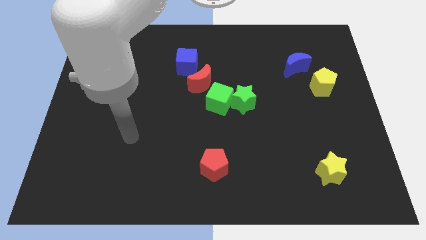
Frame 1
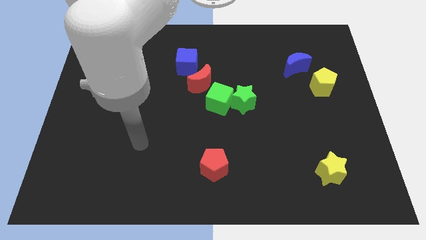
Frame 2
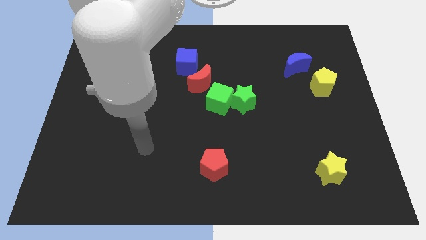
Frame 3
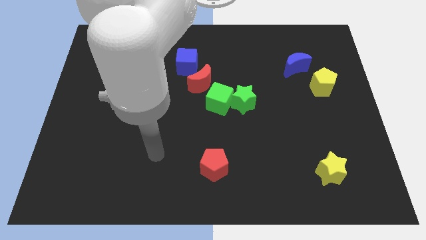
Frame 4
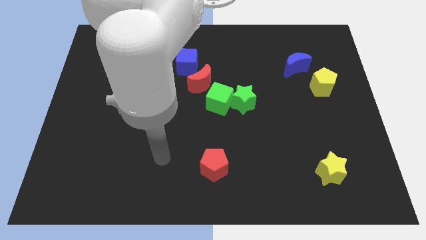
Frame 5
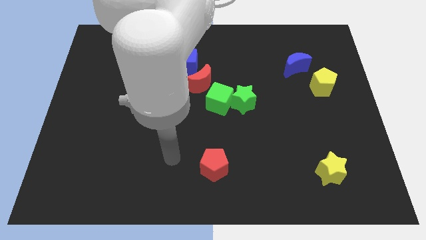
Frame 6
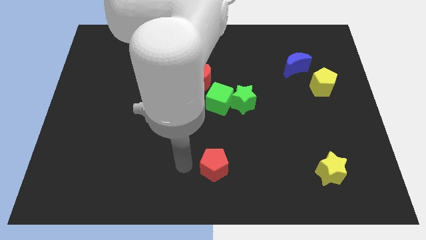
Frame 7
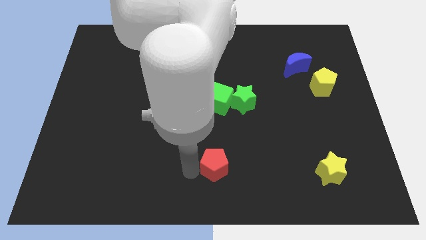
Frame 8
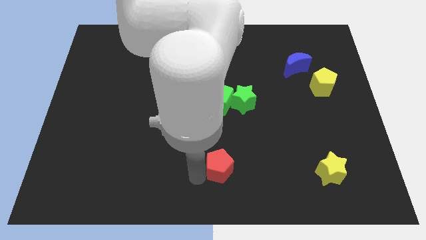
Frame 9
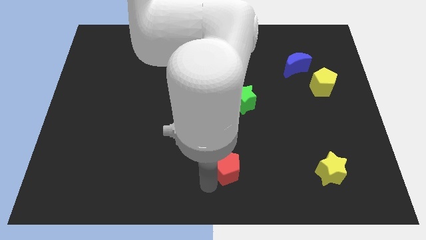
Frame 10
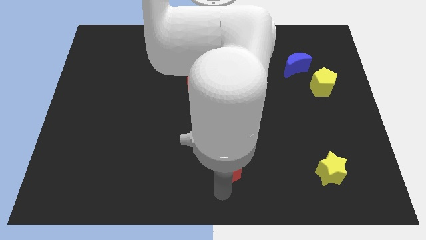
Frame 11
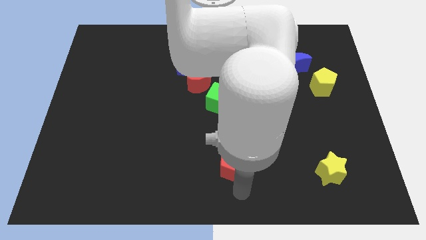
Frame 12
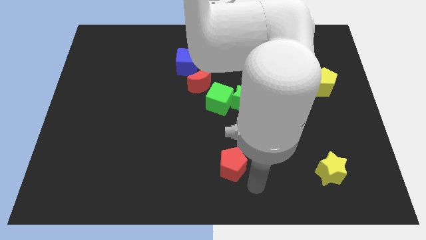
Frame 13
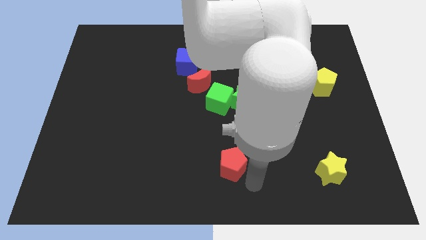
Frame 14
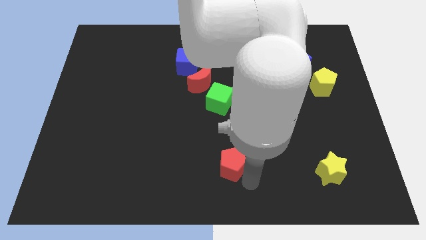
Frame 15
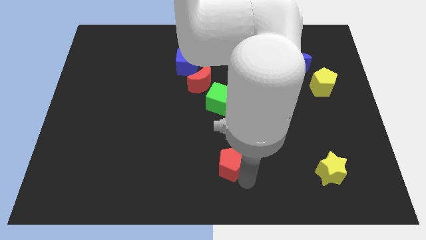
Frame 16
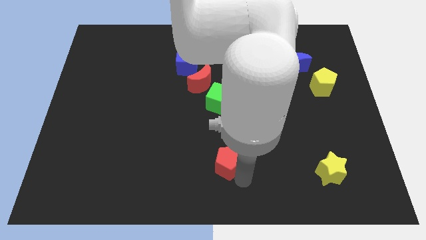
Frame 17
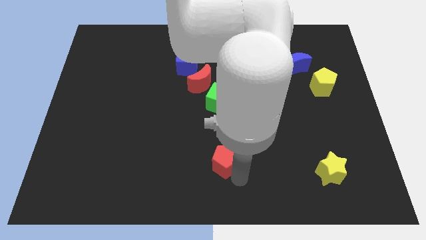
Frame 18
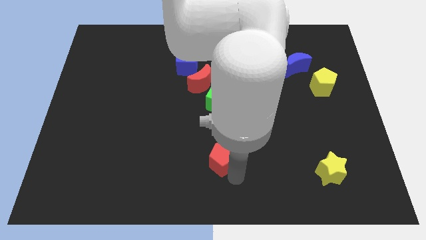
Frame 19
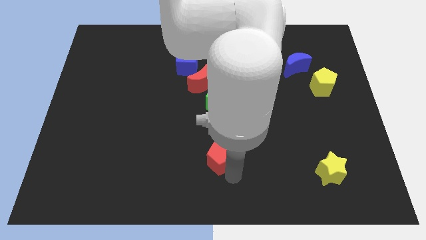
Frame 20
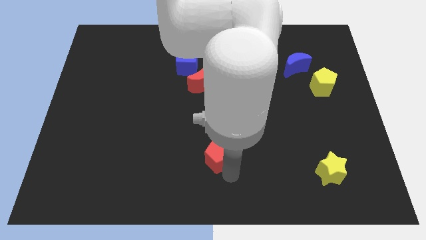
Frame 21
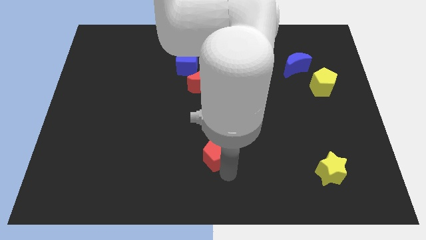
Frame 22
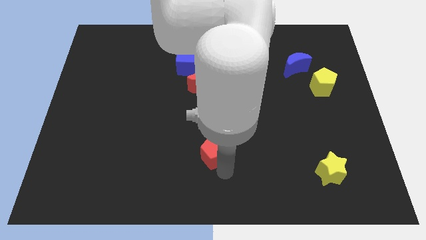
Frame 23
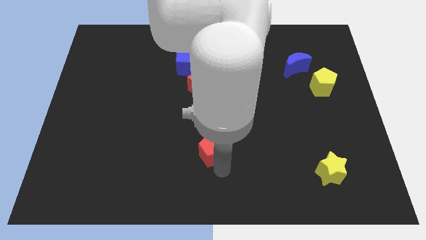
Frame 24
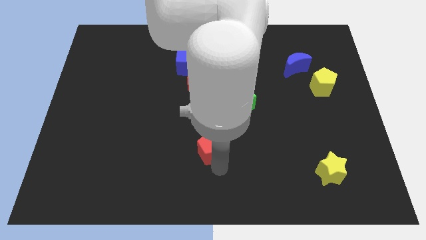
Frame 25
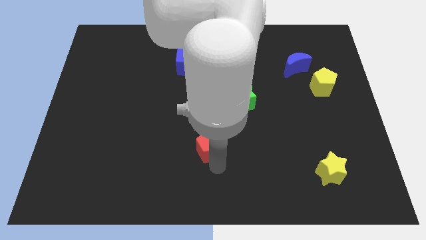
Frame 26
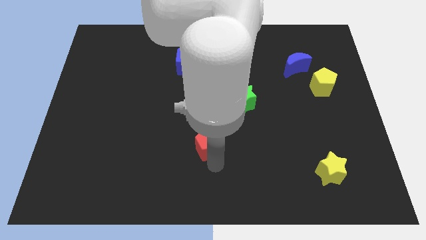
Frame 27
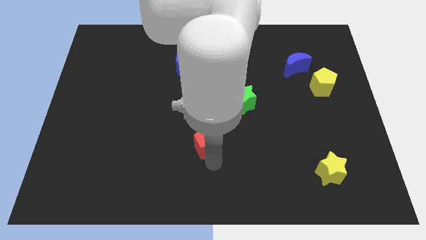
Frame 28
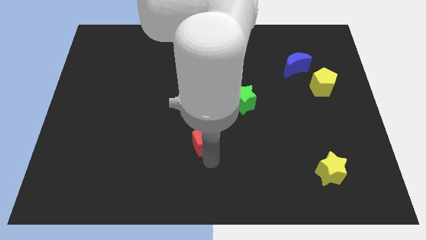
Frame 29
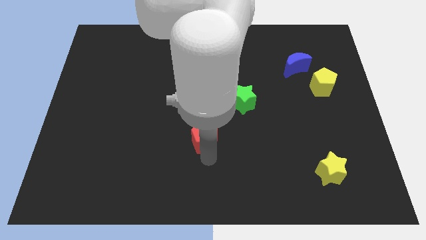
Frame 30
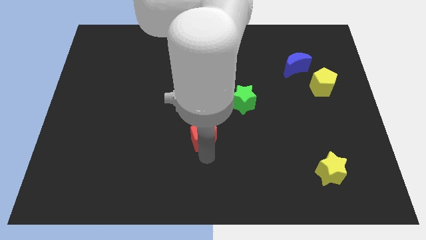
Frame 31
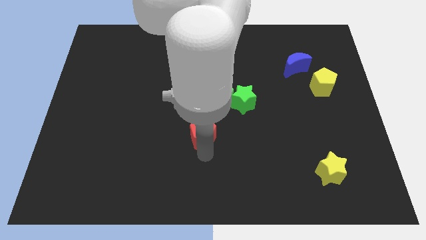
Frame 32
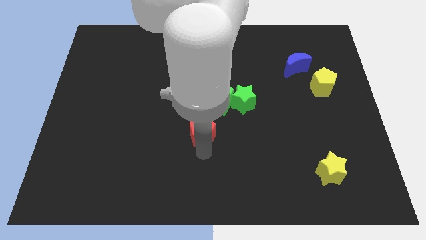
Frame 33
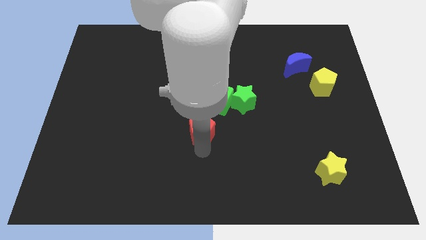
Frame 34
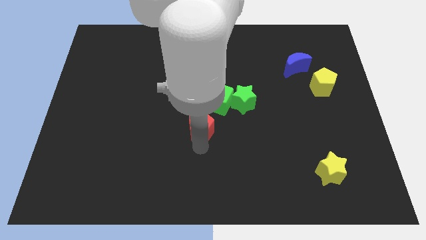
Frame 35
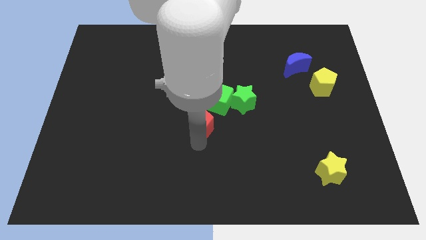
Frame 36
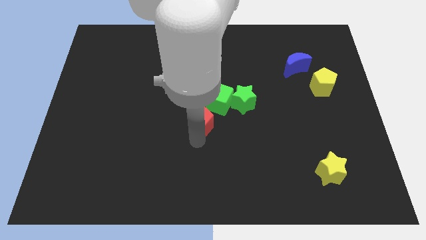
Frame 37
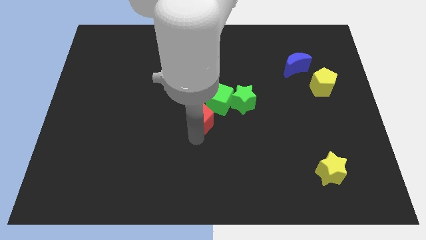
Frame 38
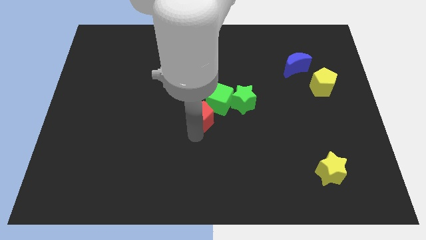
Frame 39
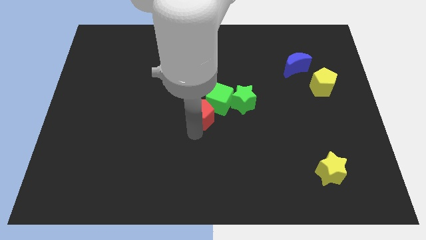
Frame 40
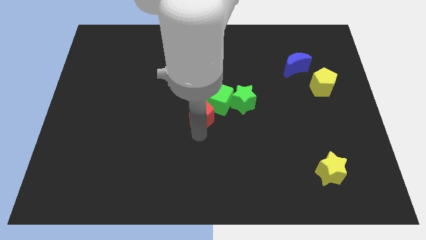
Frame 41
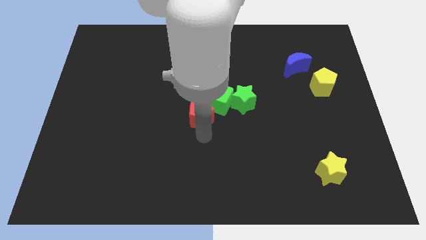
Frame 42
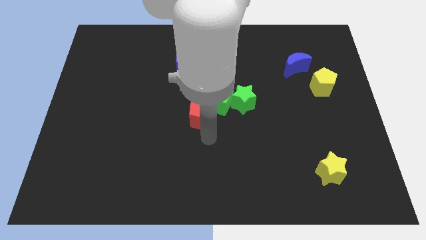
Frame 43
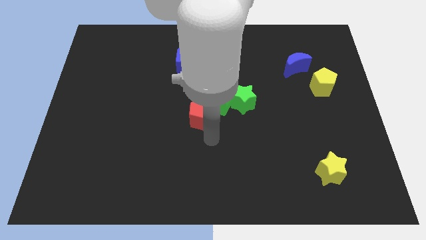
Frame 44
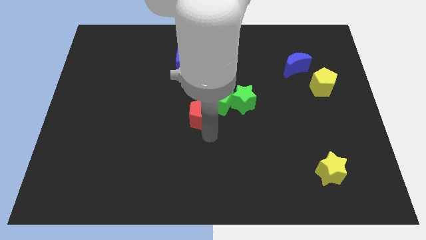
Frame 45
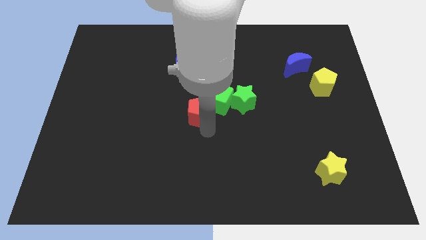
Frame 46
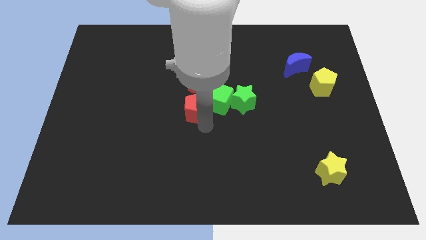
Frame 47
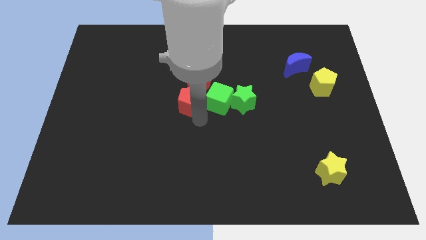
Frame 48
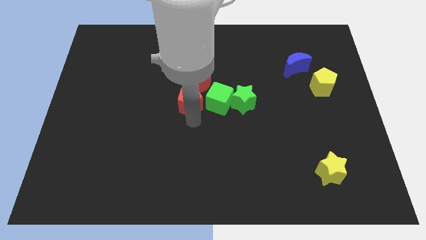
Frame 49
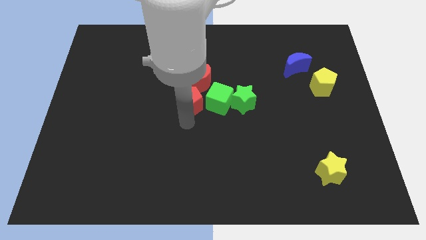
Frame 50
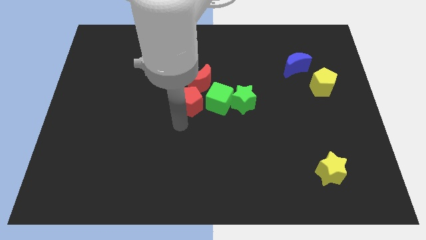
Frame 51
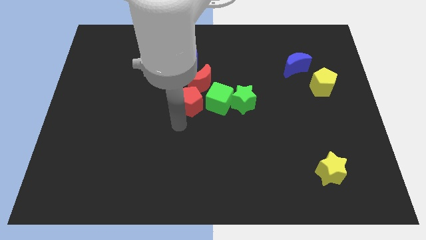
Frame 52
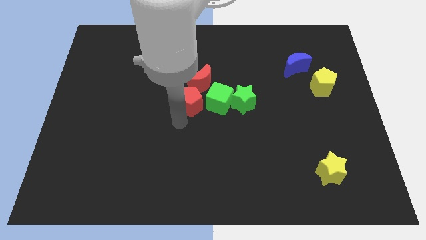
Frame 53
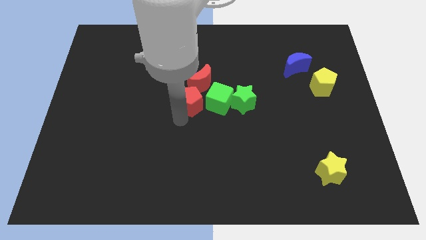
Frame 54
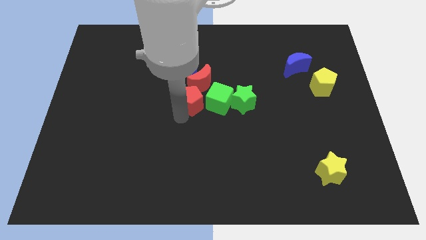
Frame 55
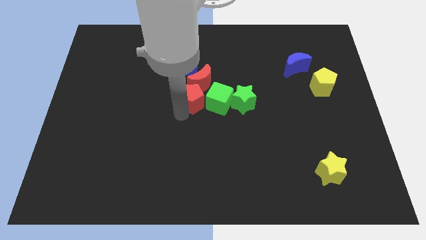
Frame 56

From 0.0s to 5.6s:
push the red pentagon towards the red moon

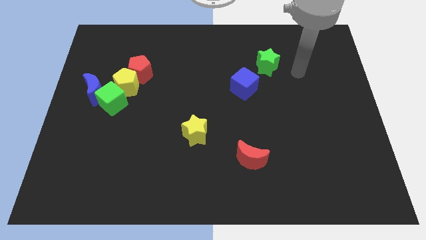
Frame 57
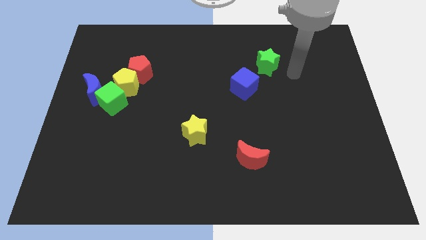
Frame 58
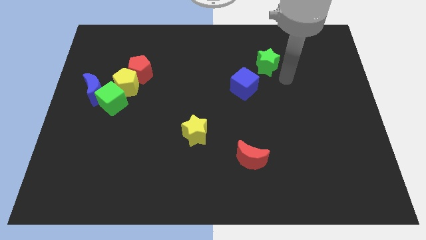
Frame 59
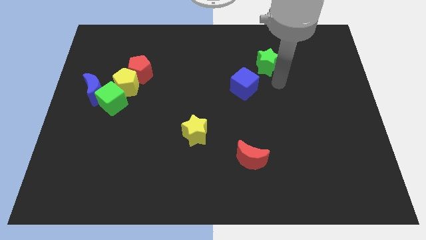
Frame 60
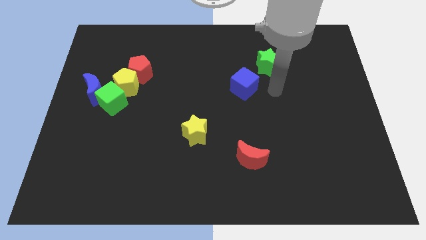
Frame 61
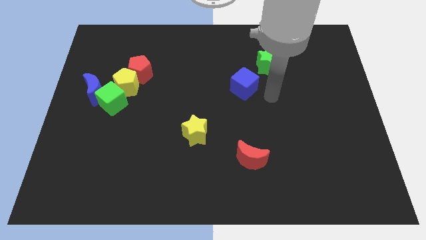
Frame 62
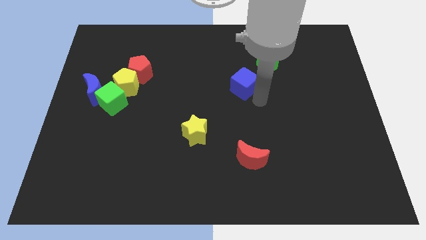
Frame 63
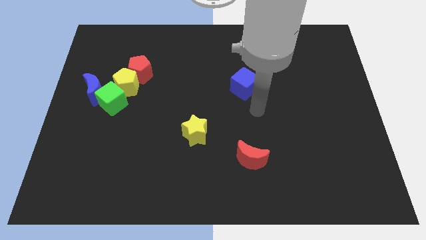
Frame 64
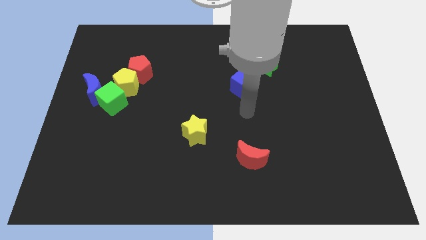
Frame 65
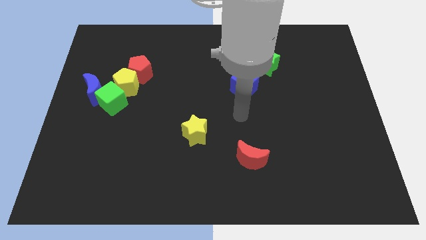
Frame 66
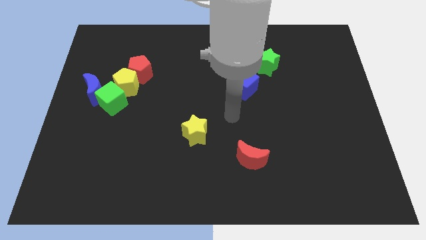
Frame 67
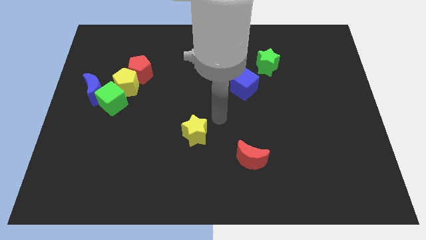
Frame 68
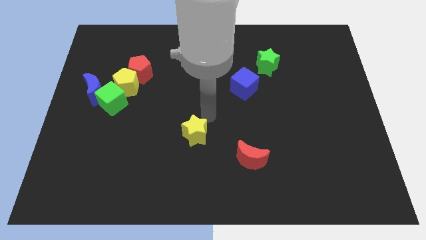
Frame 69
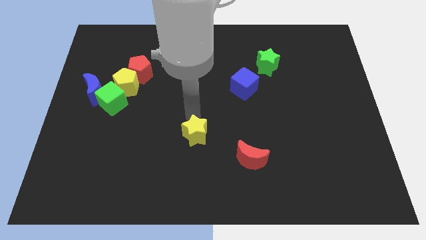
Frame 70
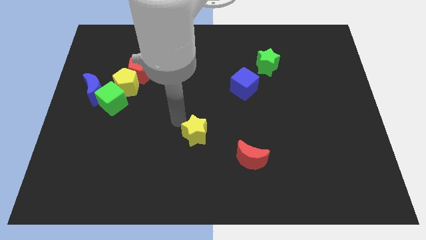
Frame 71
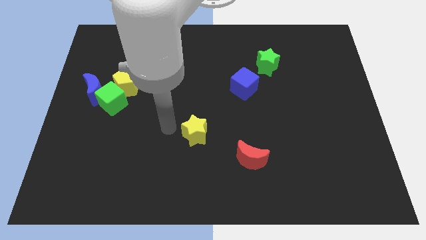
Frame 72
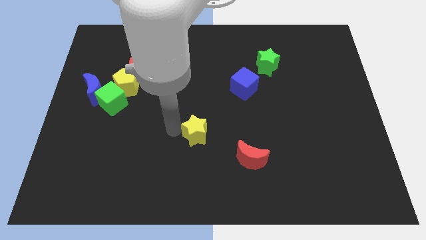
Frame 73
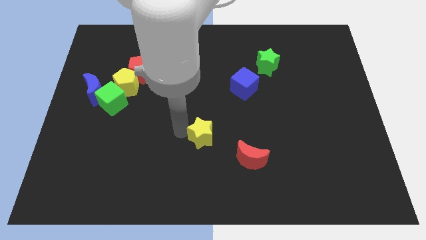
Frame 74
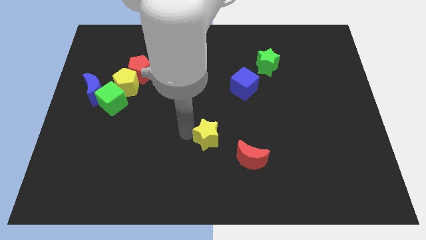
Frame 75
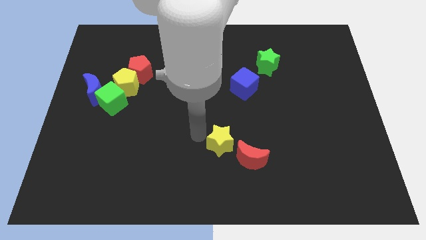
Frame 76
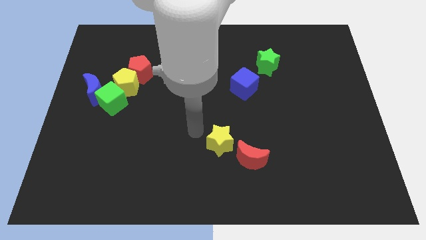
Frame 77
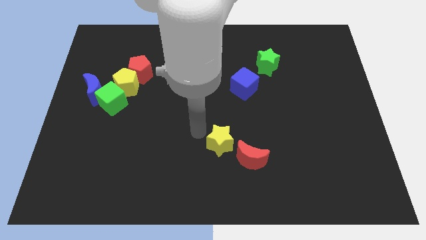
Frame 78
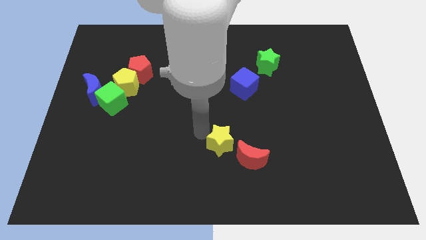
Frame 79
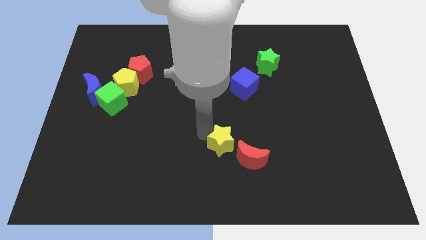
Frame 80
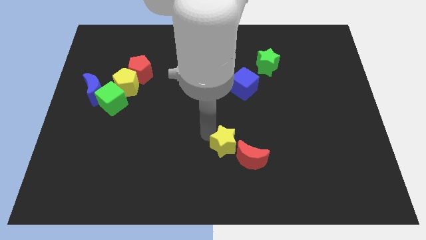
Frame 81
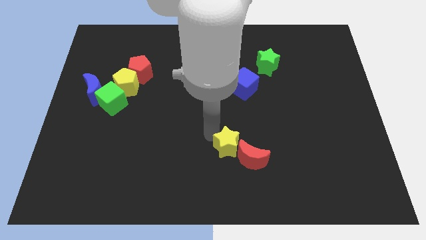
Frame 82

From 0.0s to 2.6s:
move the yellow star next to the red moon

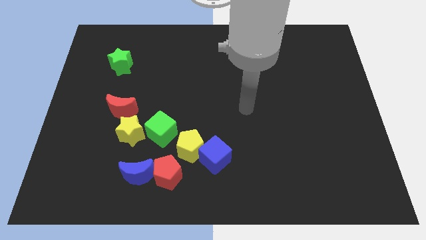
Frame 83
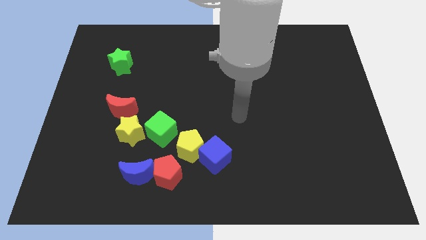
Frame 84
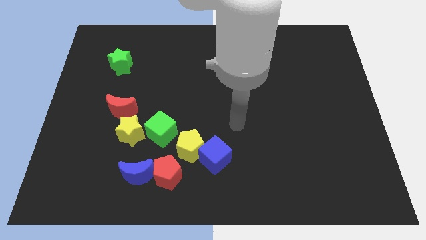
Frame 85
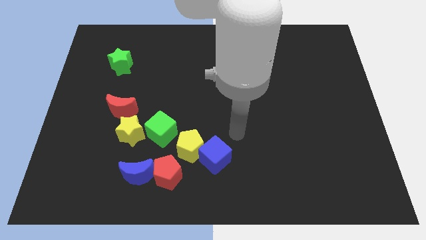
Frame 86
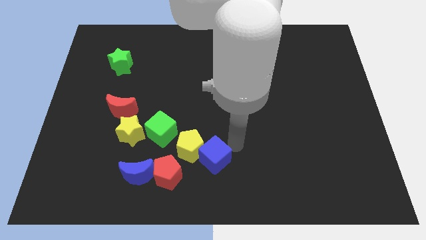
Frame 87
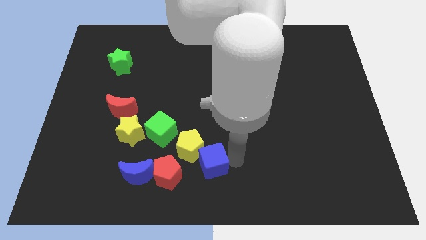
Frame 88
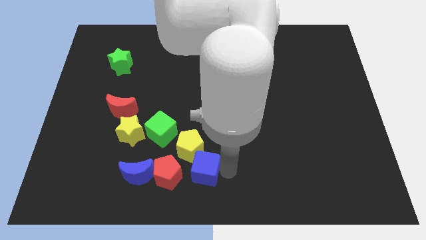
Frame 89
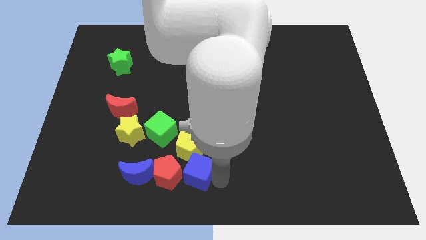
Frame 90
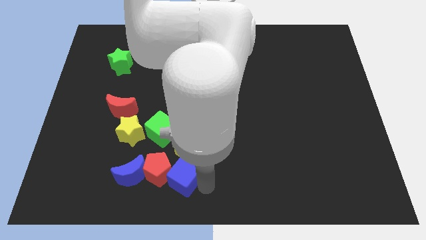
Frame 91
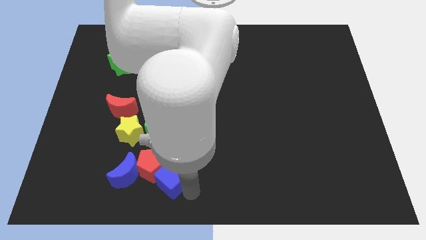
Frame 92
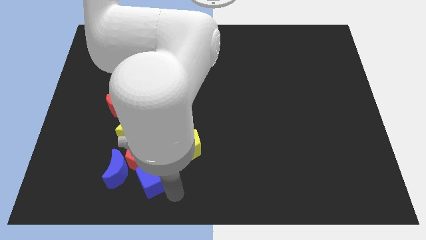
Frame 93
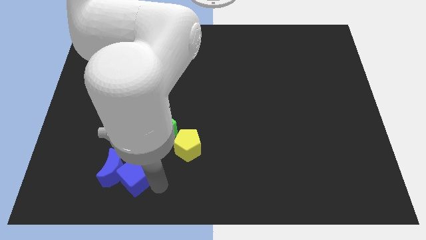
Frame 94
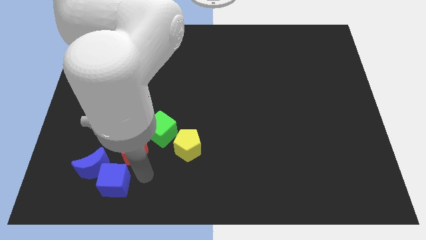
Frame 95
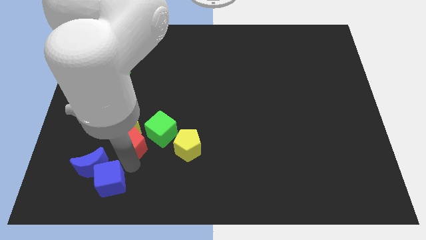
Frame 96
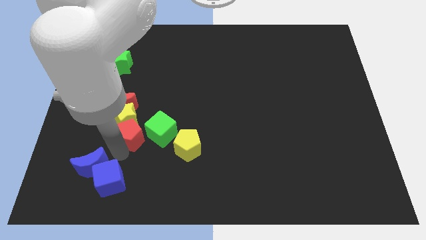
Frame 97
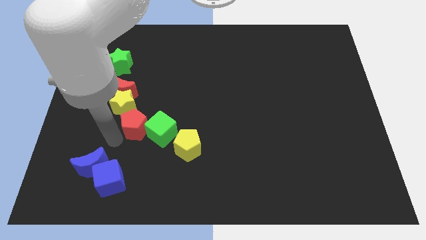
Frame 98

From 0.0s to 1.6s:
move the red pentagon to the green cube
